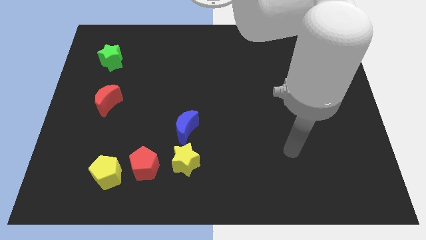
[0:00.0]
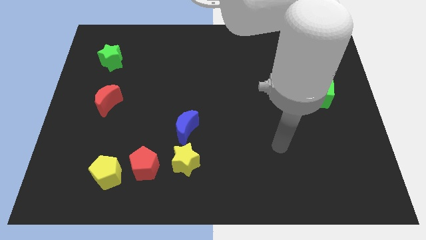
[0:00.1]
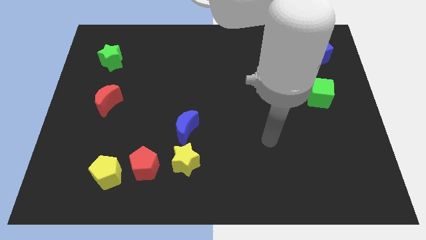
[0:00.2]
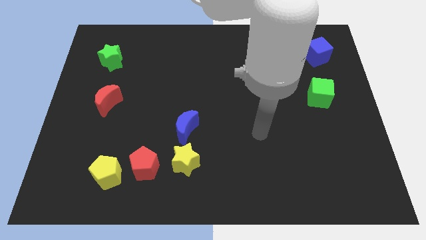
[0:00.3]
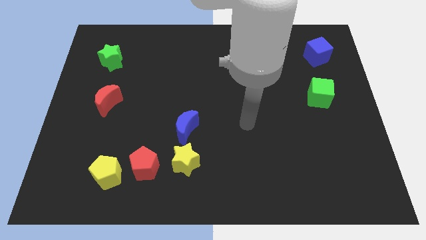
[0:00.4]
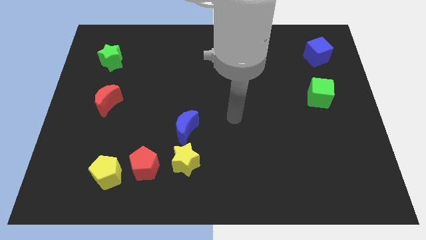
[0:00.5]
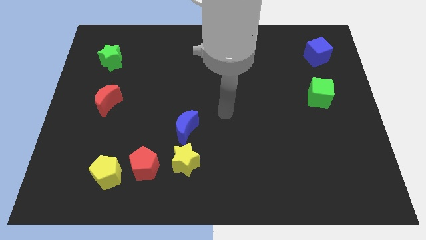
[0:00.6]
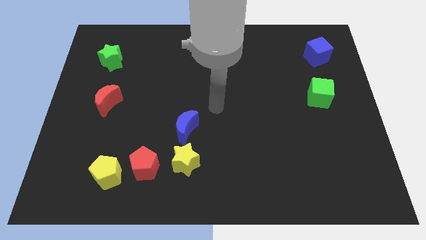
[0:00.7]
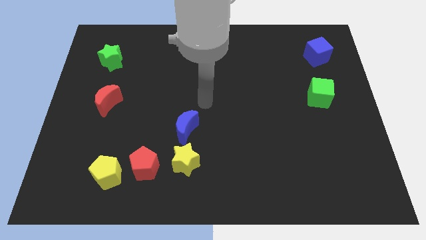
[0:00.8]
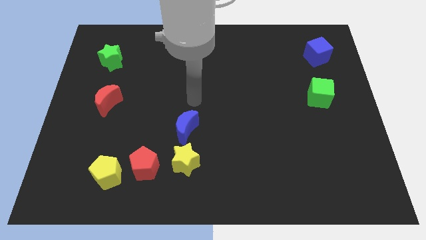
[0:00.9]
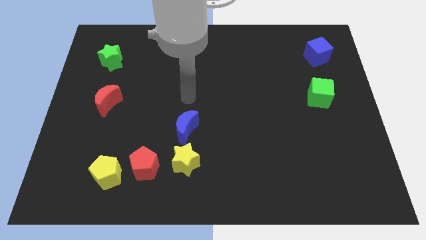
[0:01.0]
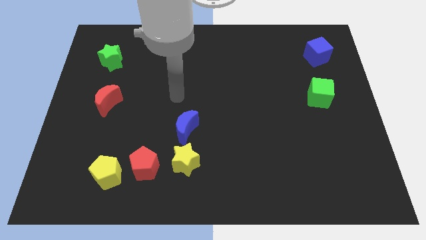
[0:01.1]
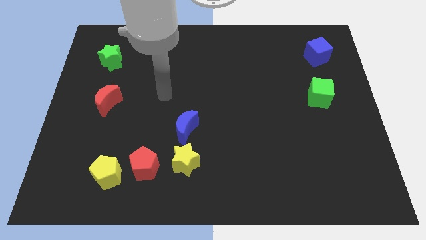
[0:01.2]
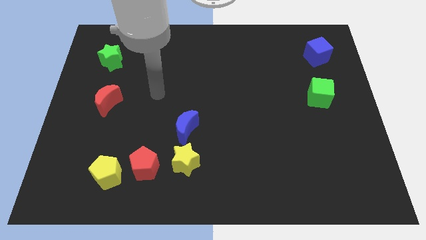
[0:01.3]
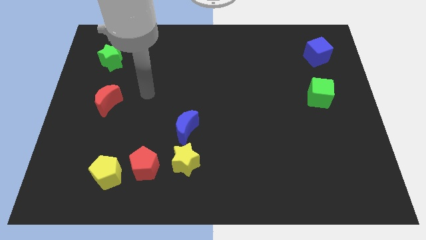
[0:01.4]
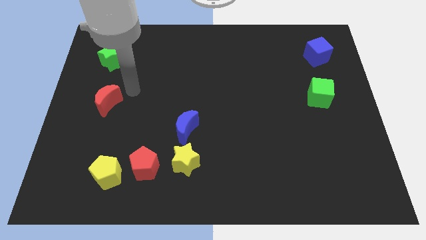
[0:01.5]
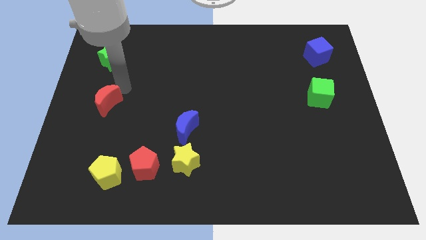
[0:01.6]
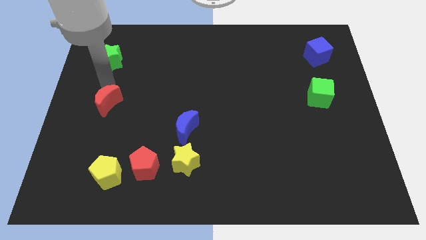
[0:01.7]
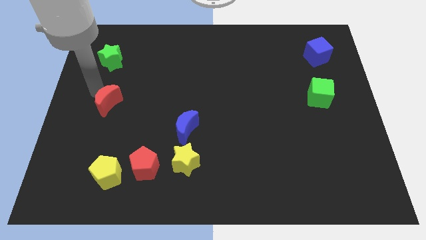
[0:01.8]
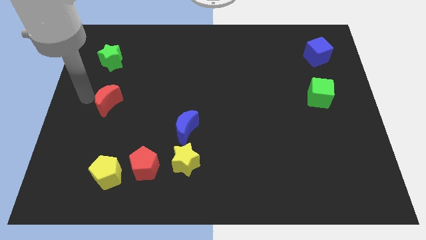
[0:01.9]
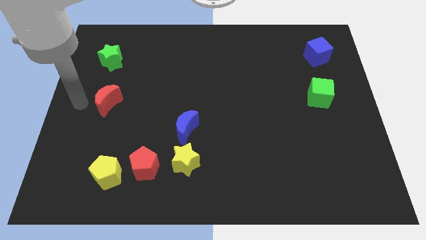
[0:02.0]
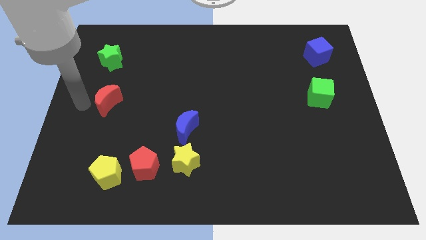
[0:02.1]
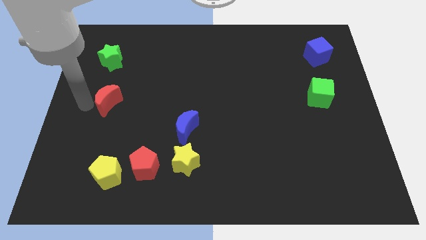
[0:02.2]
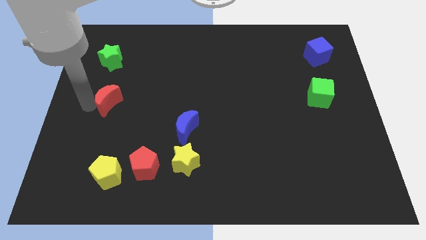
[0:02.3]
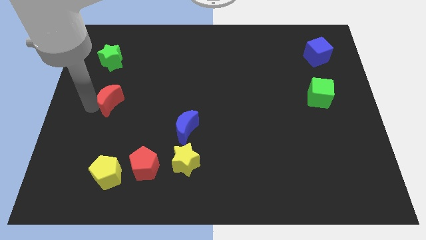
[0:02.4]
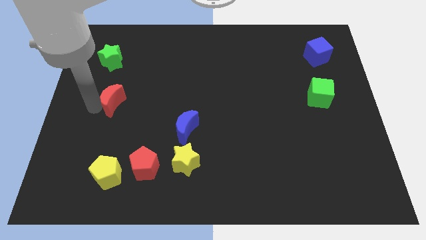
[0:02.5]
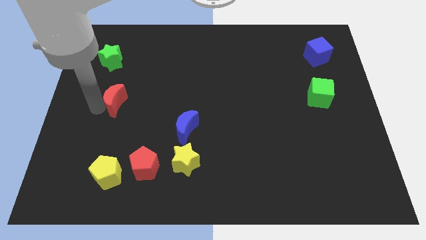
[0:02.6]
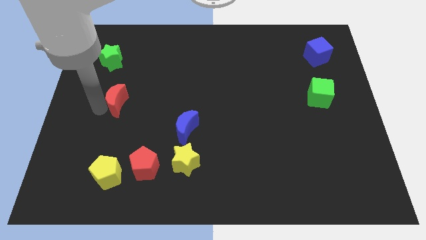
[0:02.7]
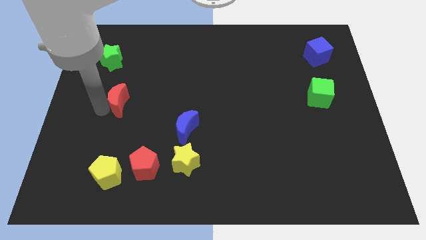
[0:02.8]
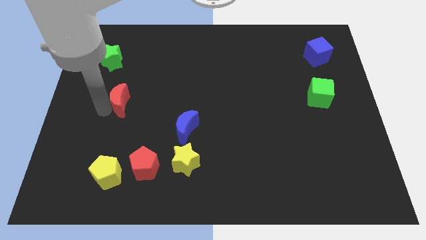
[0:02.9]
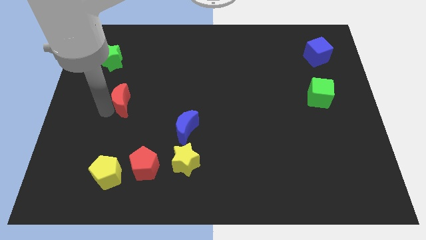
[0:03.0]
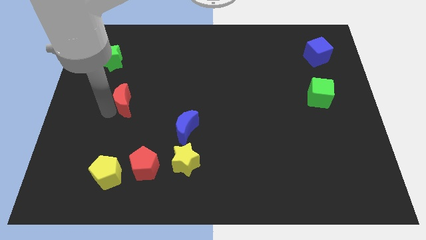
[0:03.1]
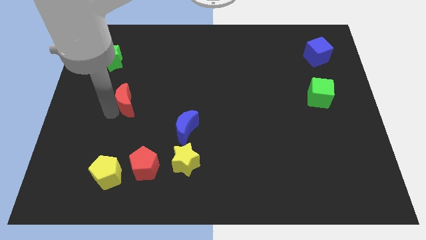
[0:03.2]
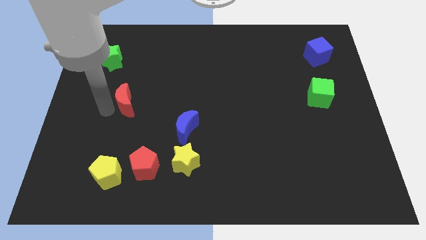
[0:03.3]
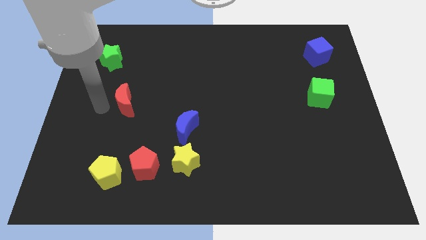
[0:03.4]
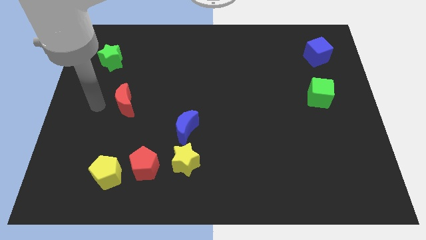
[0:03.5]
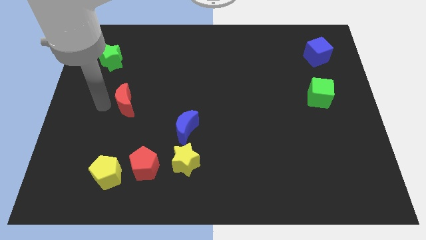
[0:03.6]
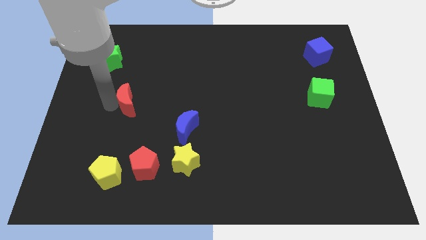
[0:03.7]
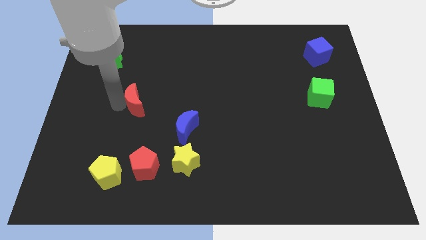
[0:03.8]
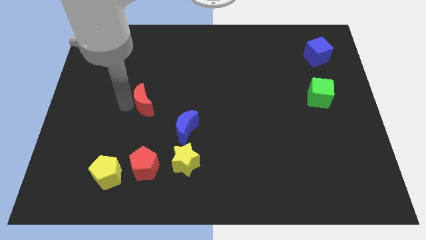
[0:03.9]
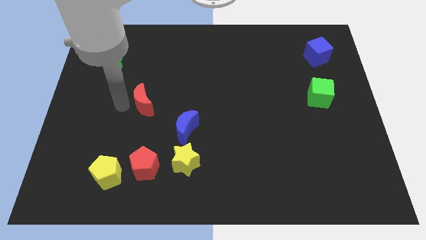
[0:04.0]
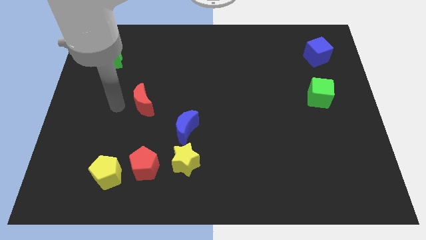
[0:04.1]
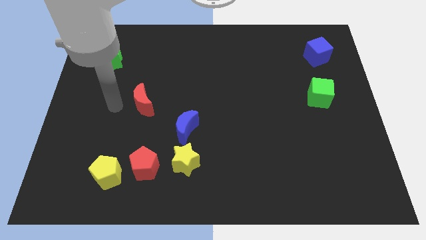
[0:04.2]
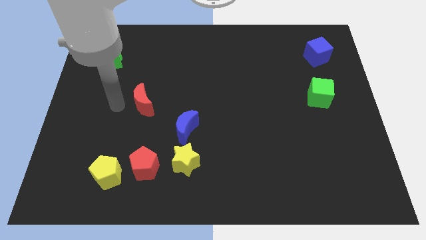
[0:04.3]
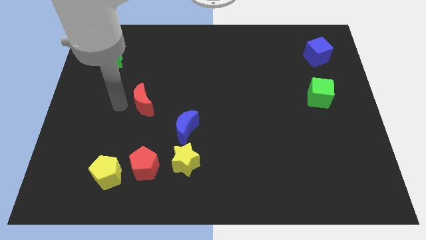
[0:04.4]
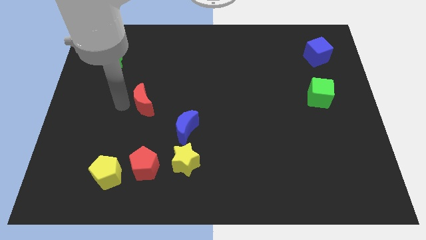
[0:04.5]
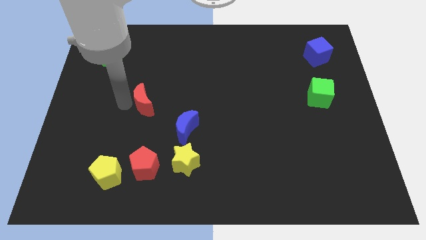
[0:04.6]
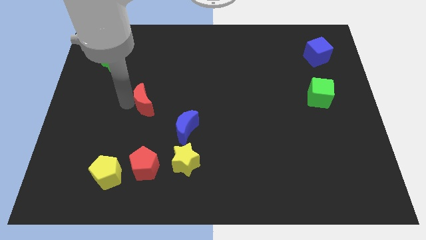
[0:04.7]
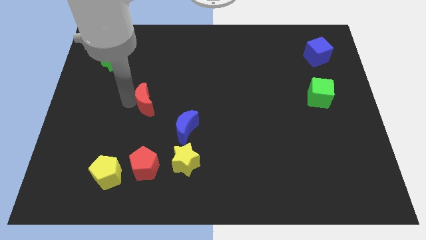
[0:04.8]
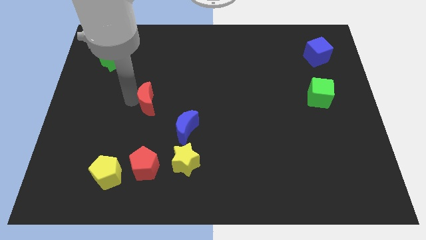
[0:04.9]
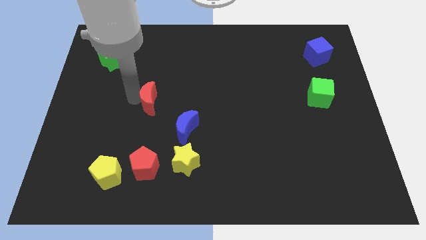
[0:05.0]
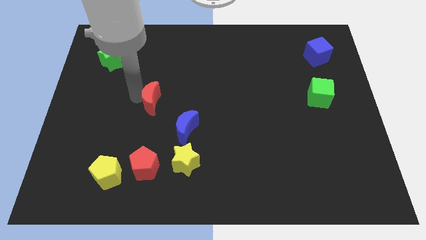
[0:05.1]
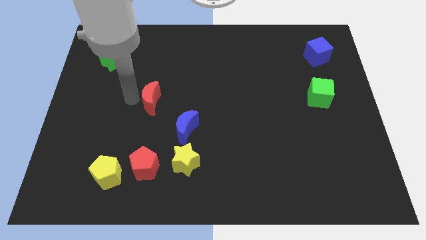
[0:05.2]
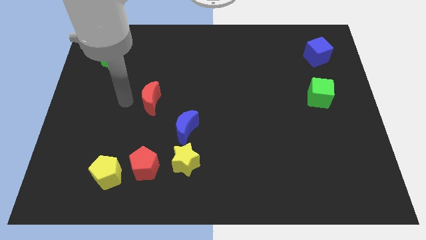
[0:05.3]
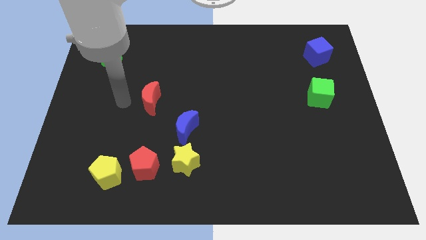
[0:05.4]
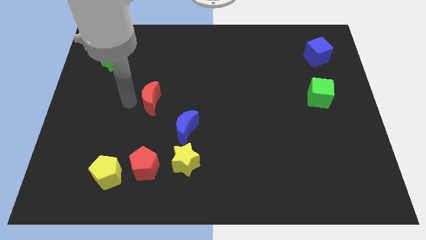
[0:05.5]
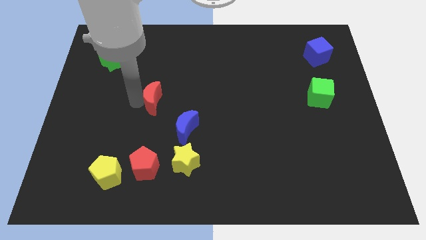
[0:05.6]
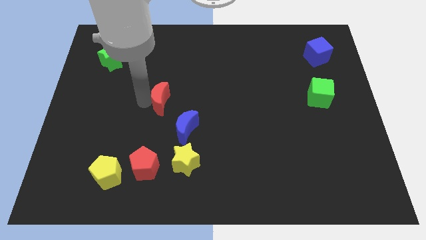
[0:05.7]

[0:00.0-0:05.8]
put the red moon to the middle
